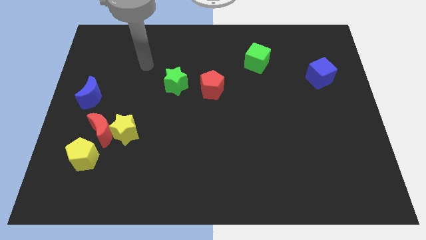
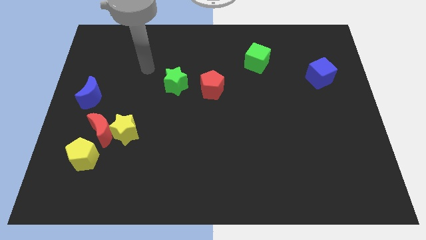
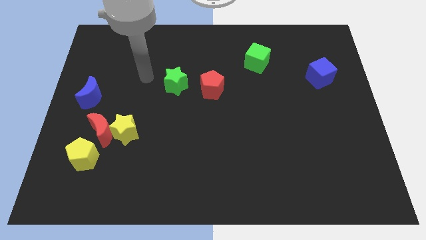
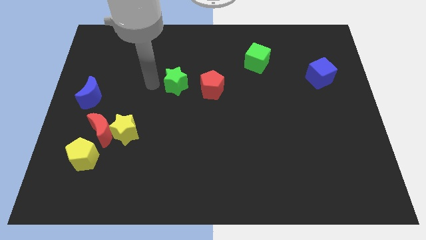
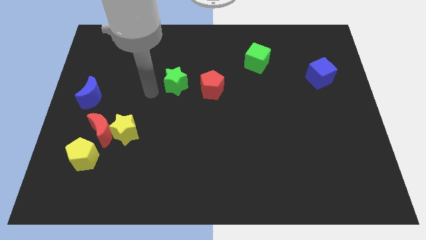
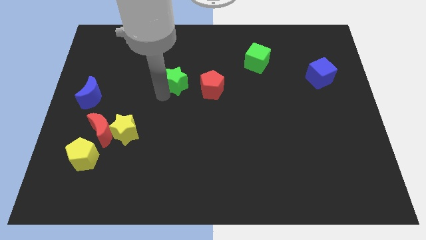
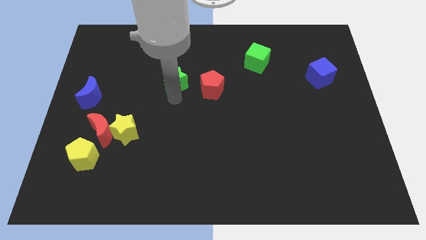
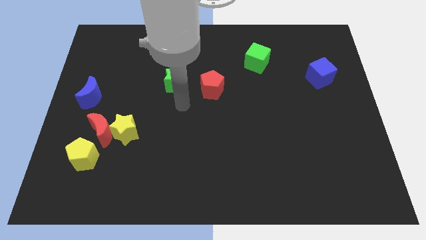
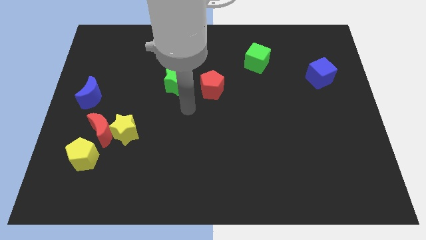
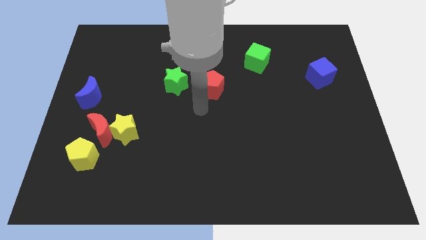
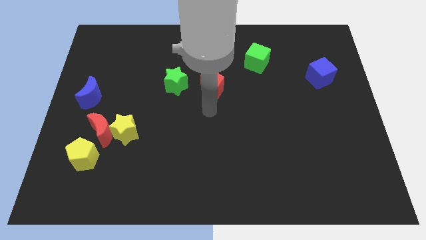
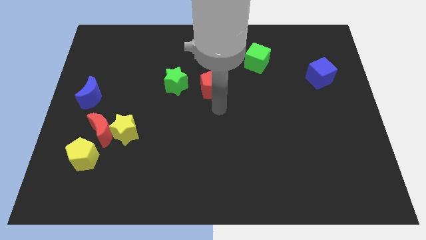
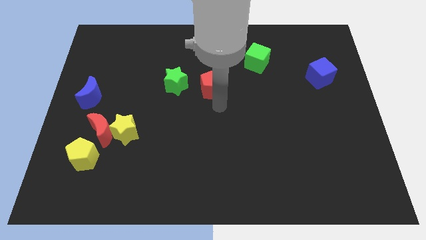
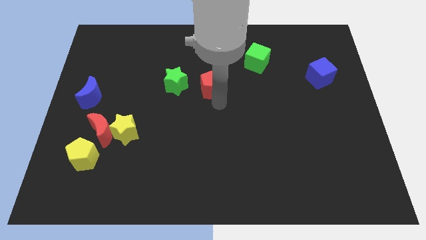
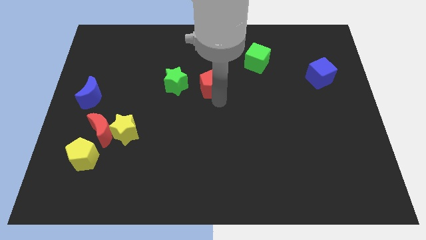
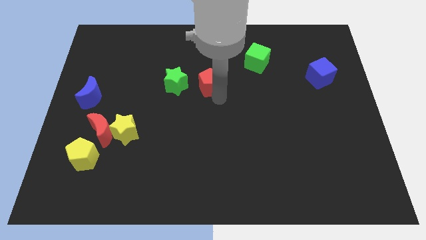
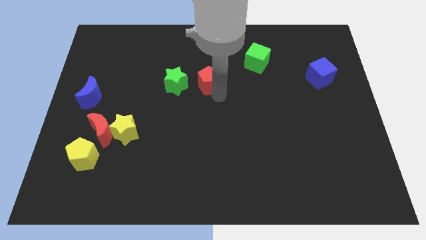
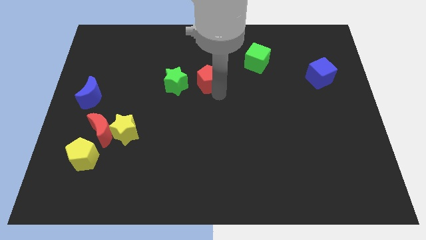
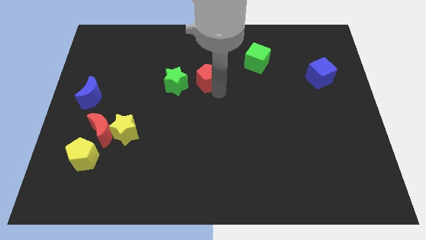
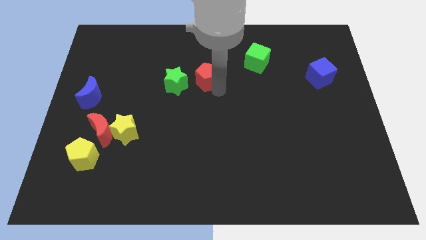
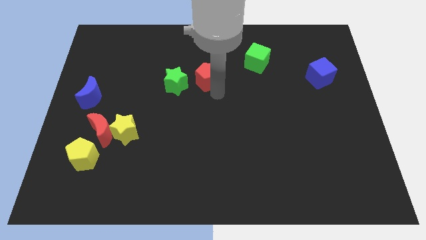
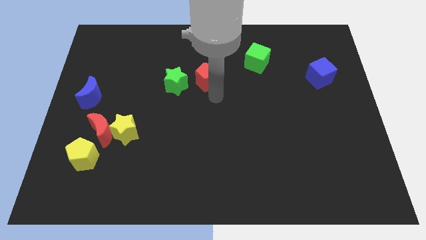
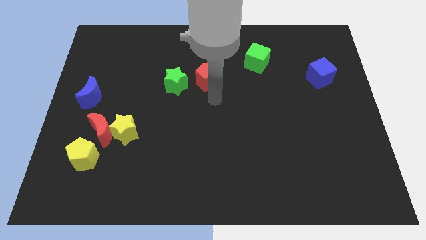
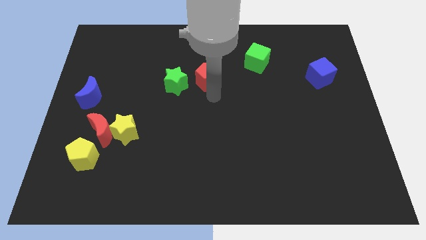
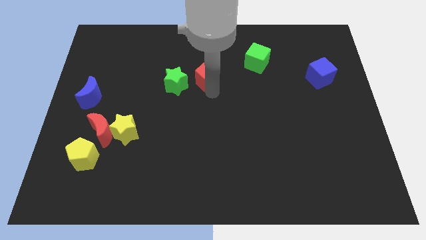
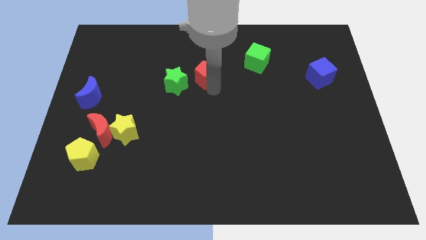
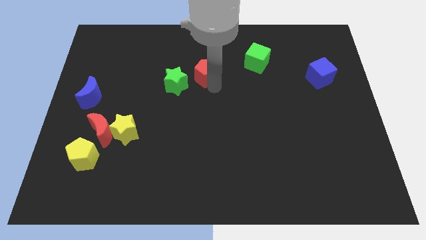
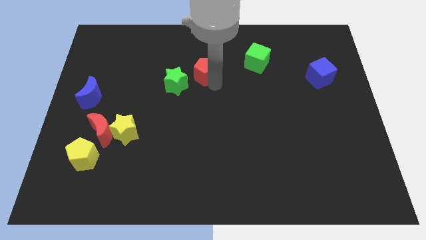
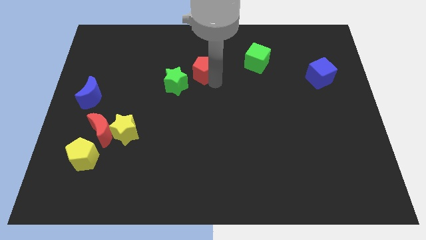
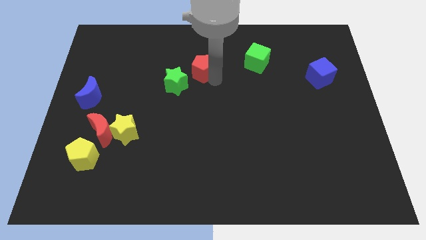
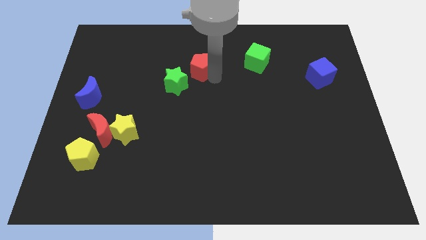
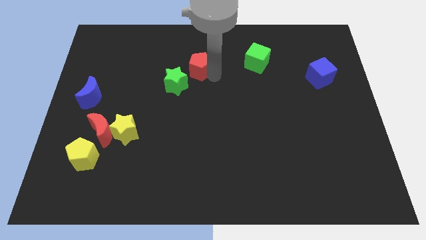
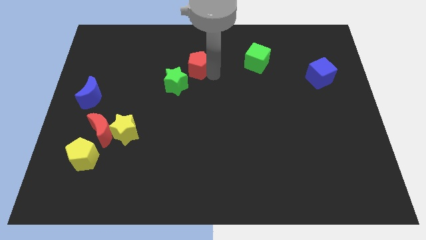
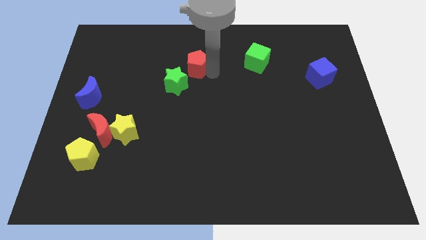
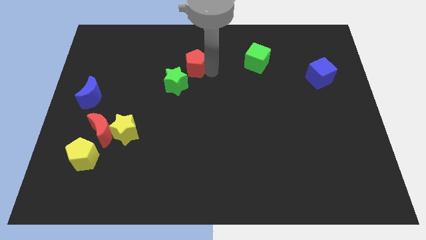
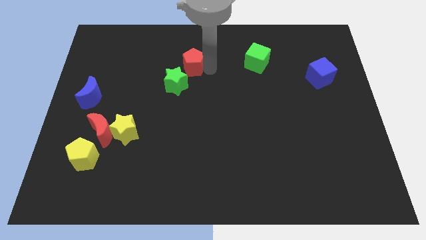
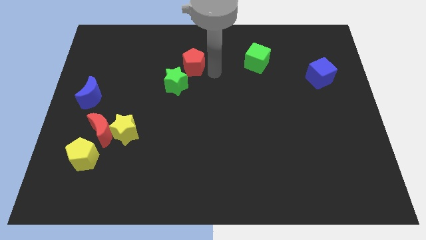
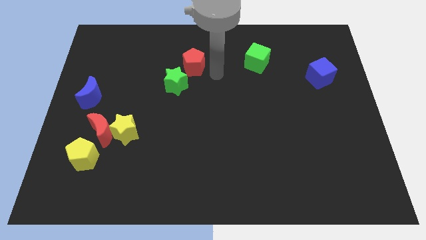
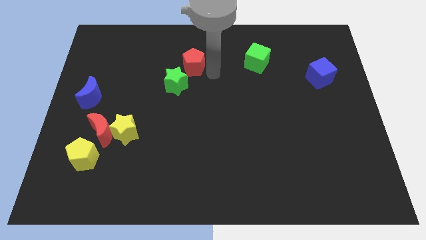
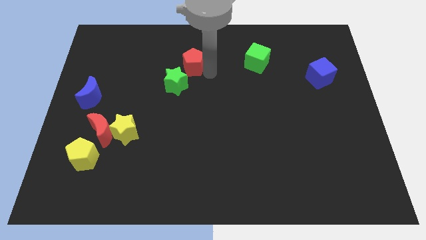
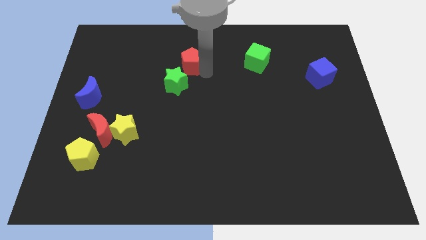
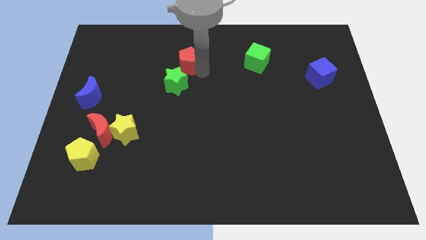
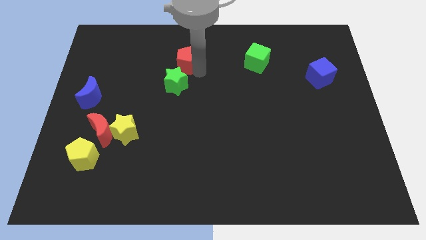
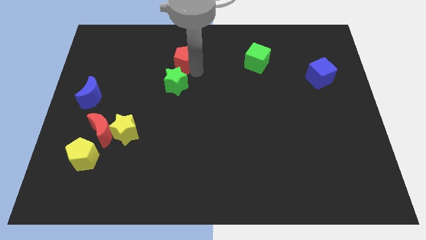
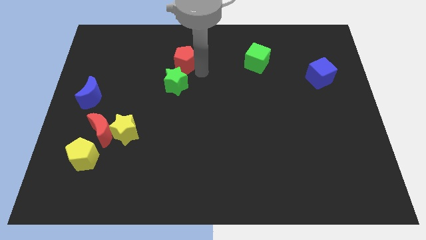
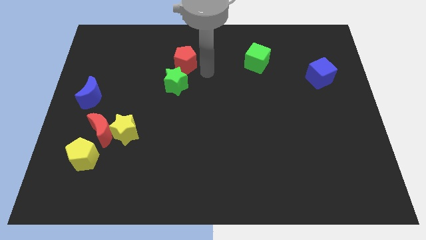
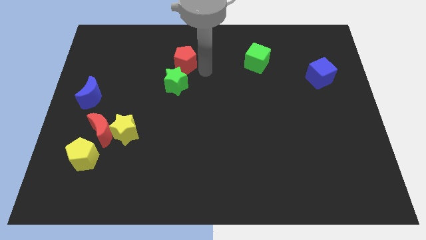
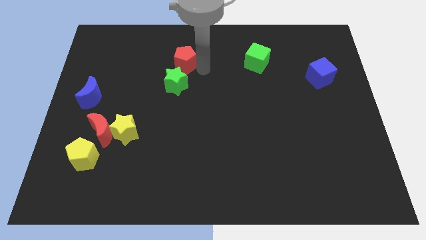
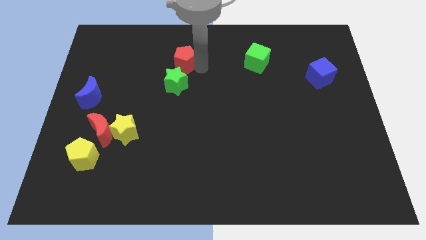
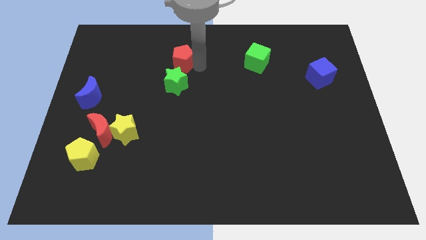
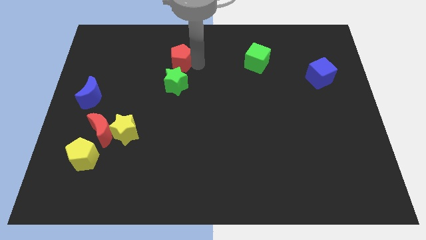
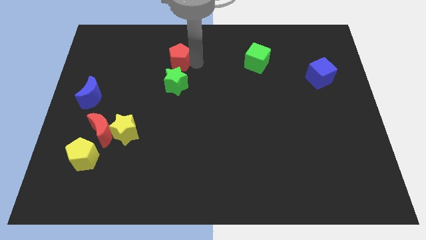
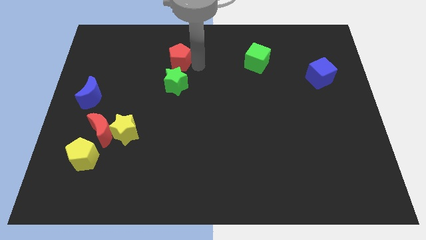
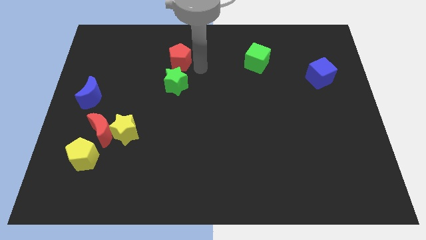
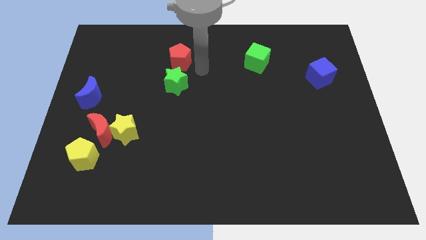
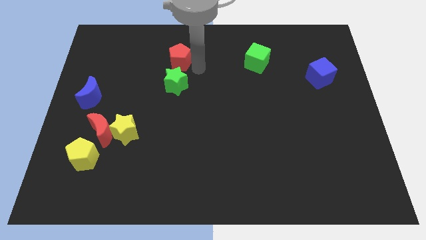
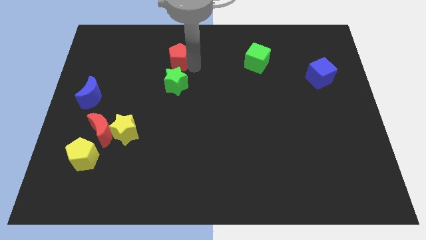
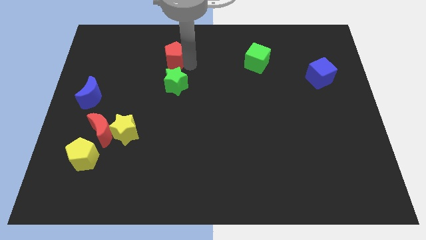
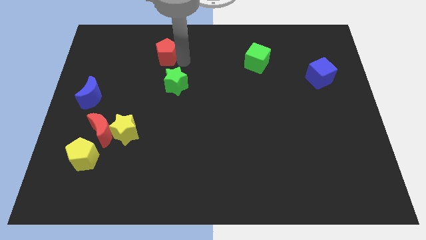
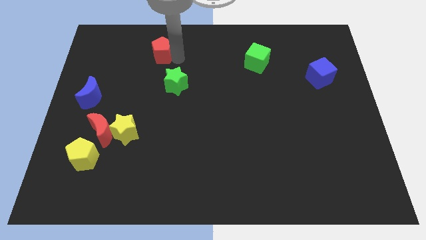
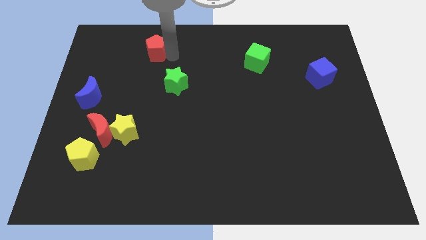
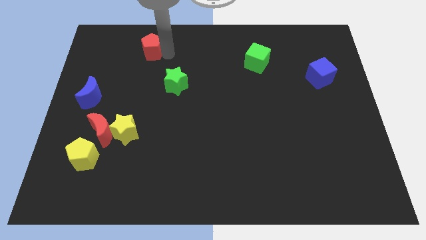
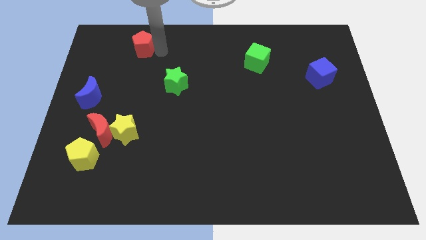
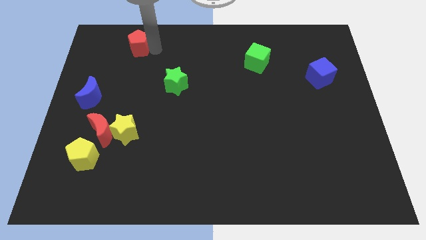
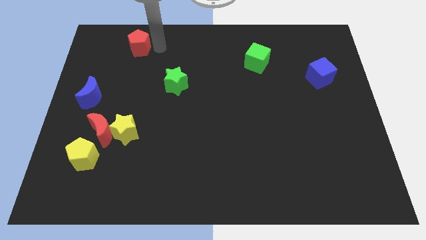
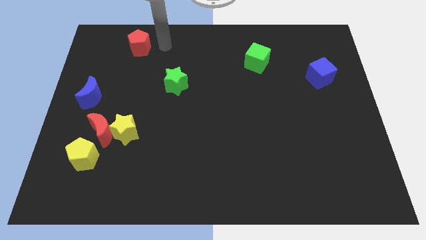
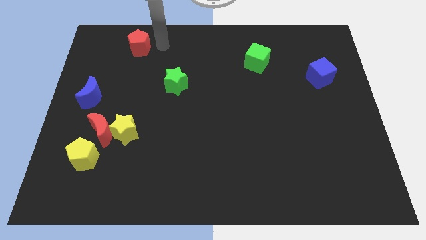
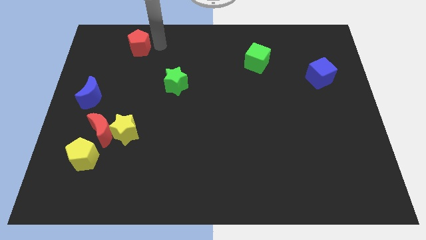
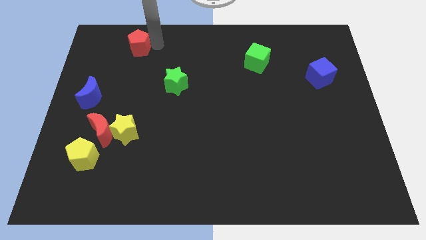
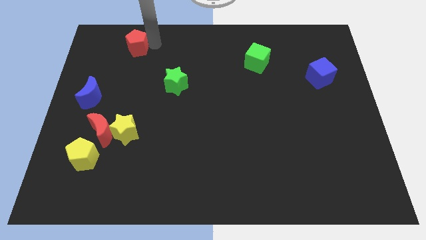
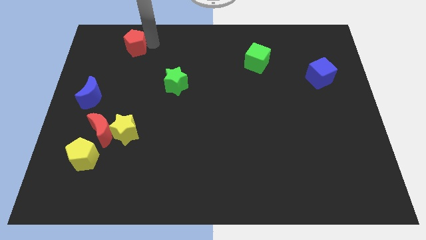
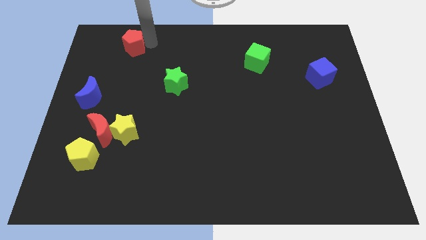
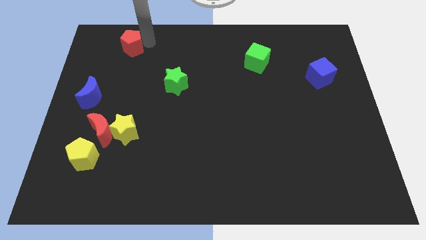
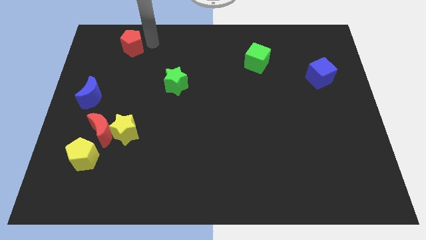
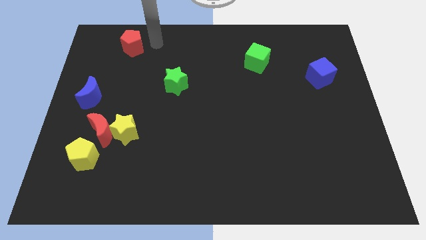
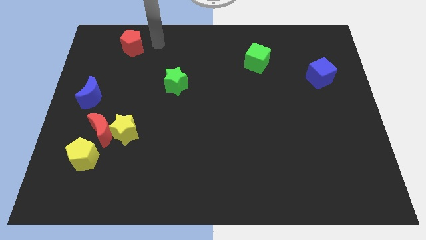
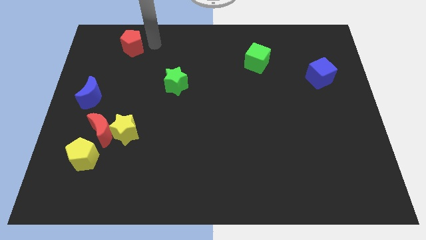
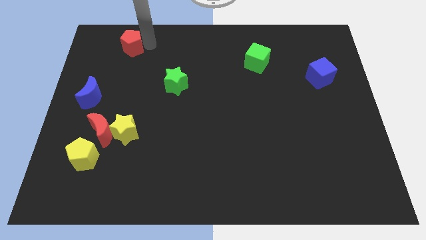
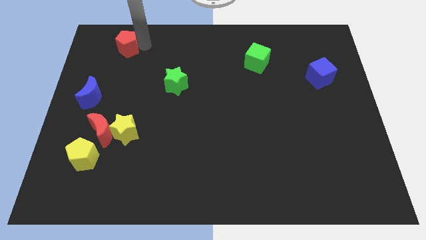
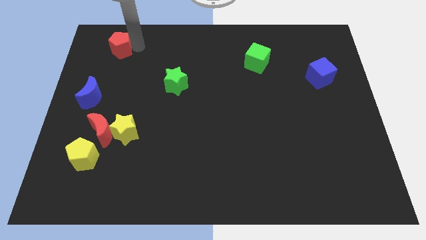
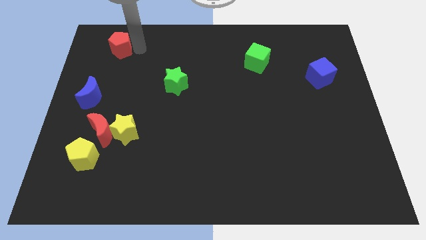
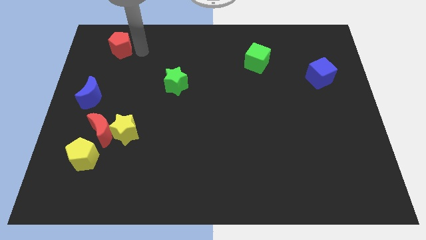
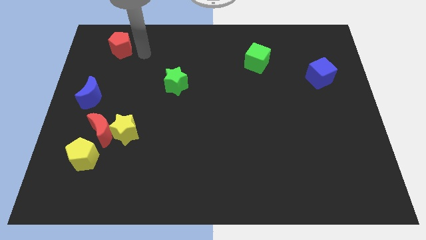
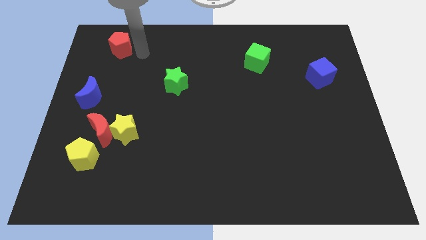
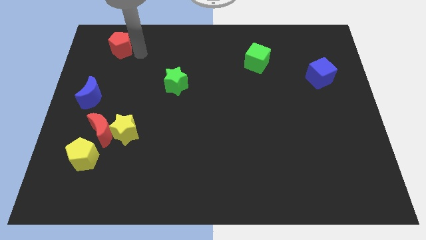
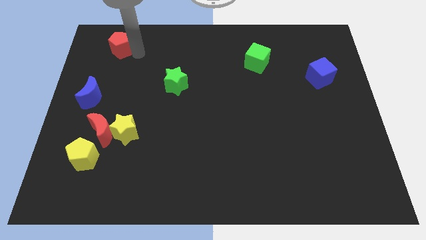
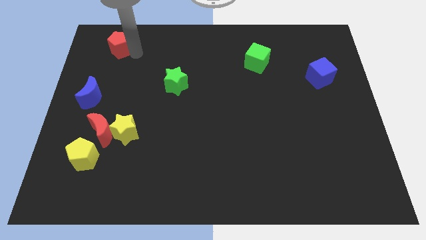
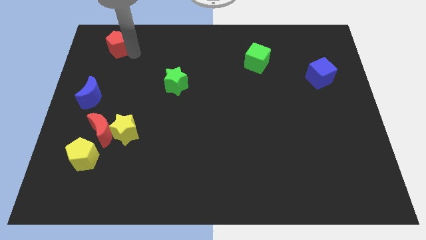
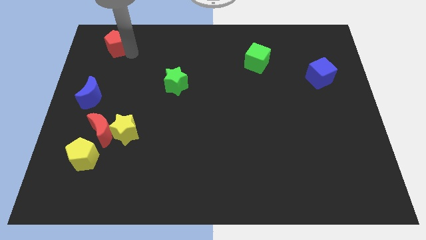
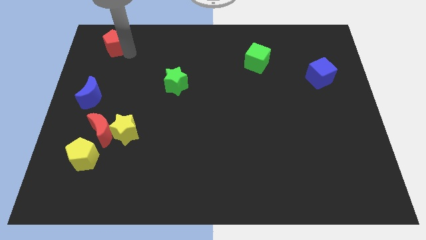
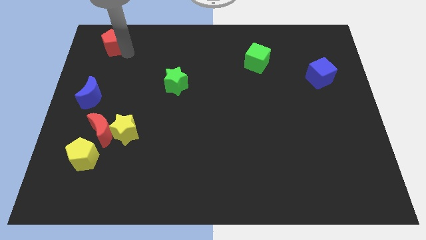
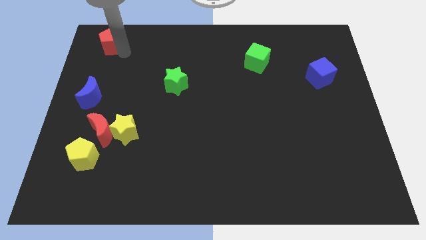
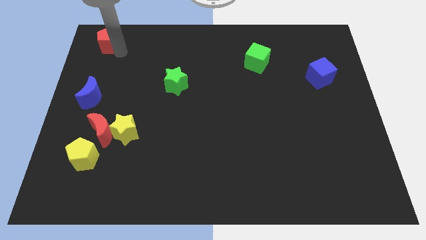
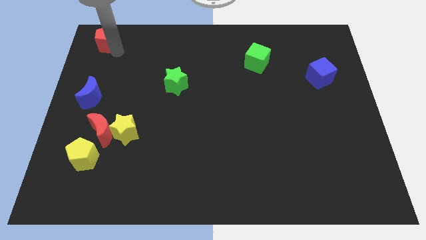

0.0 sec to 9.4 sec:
put the red pentagon to the top left of the board
